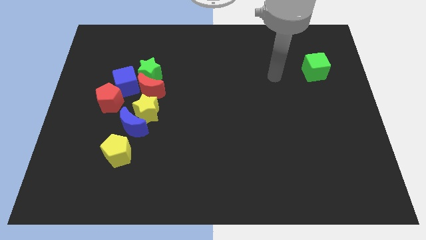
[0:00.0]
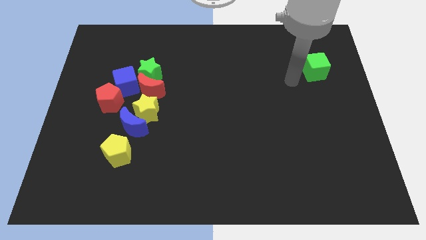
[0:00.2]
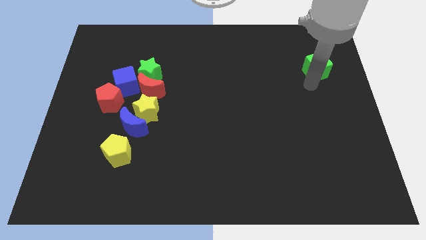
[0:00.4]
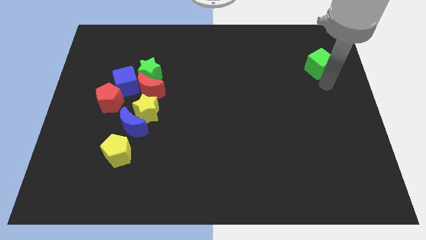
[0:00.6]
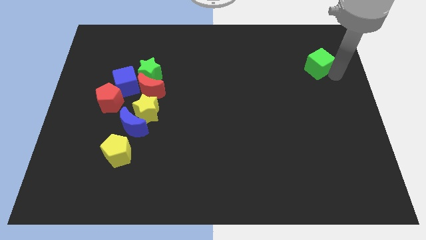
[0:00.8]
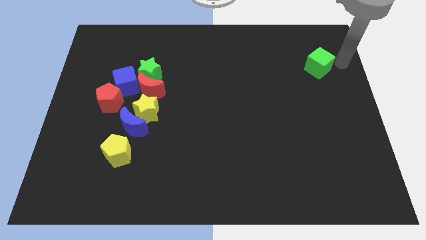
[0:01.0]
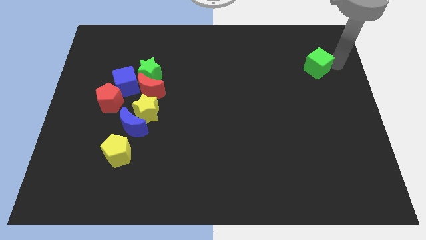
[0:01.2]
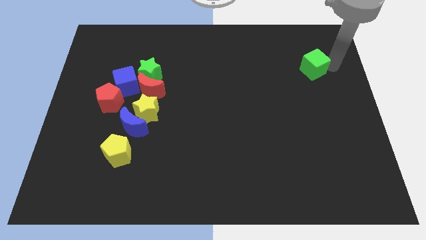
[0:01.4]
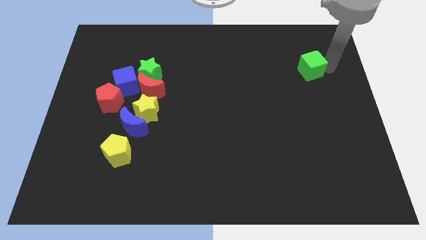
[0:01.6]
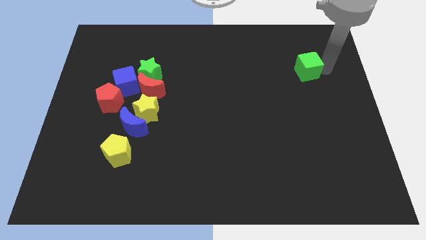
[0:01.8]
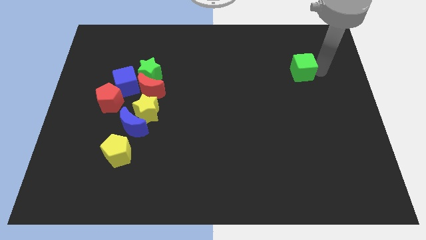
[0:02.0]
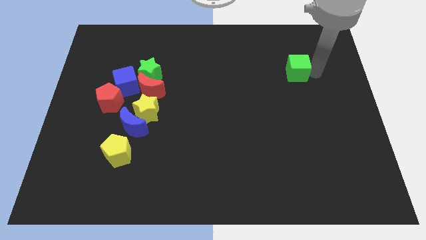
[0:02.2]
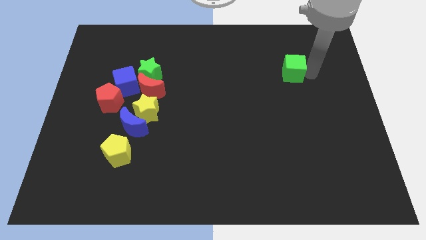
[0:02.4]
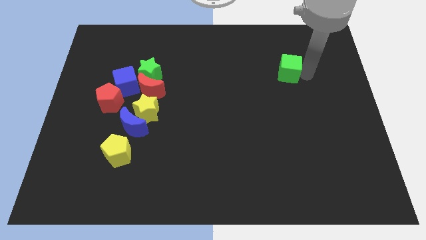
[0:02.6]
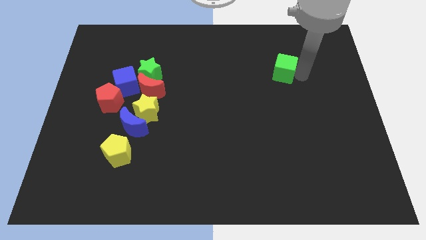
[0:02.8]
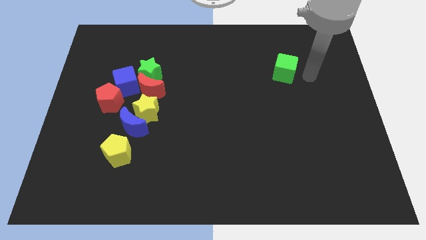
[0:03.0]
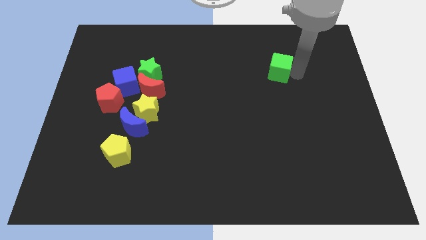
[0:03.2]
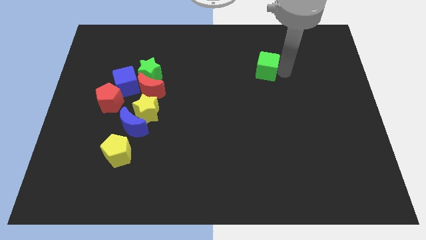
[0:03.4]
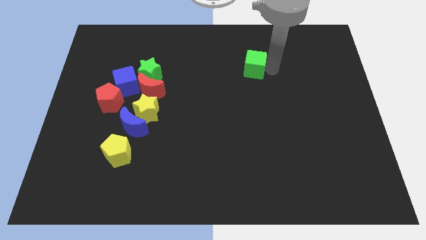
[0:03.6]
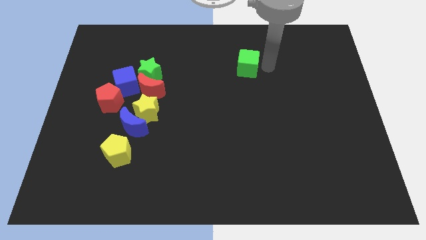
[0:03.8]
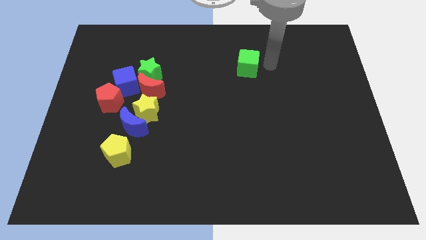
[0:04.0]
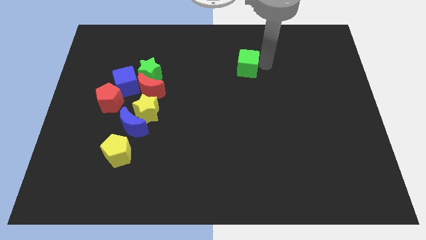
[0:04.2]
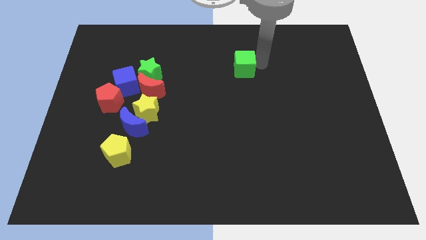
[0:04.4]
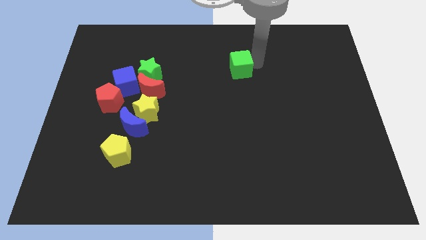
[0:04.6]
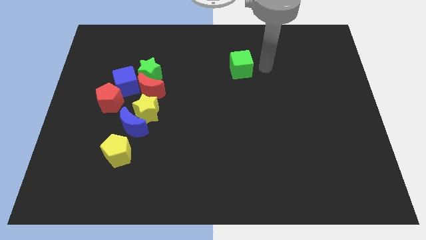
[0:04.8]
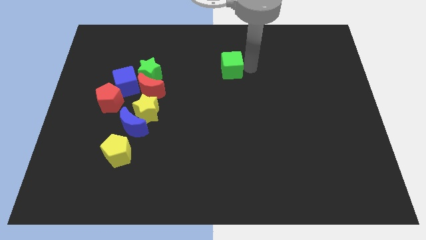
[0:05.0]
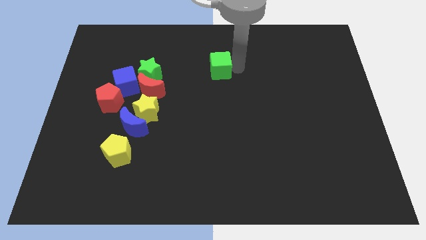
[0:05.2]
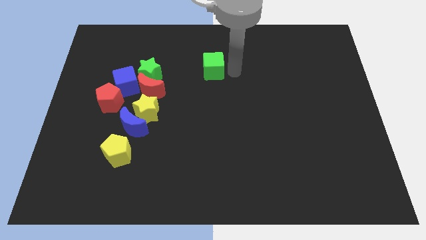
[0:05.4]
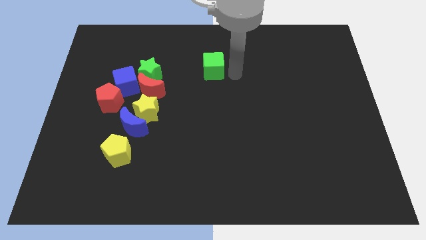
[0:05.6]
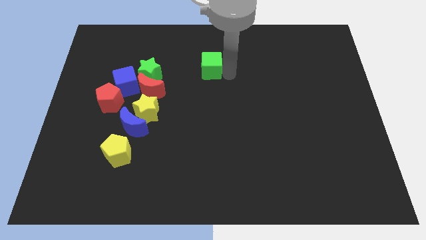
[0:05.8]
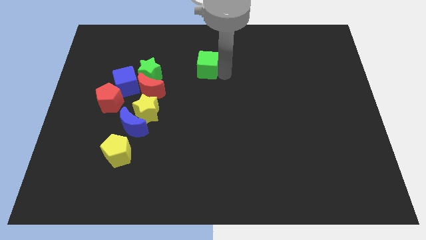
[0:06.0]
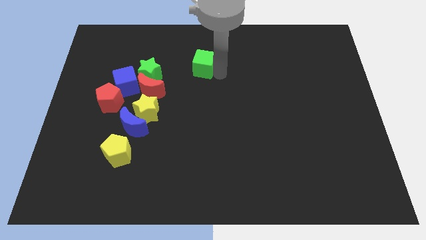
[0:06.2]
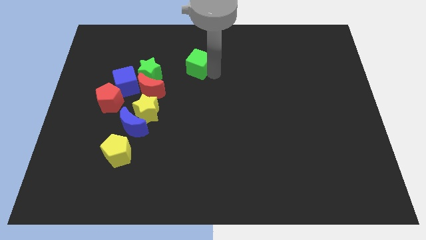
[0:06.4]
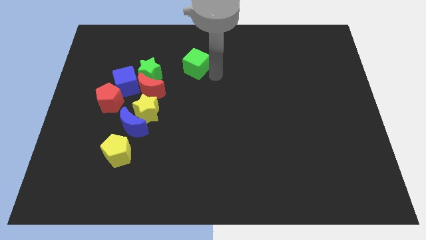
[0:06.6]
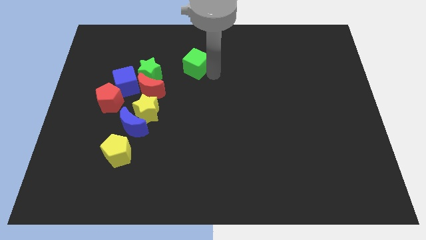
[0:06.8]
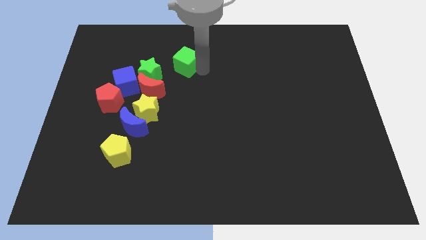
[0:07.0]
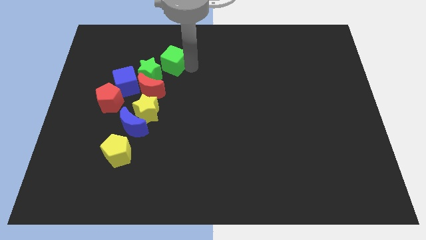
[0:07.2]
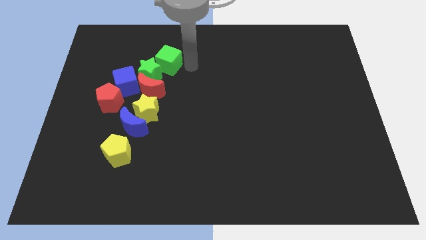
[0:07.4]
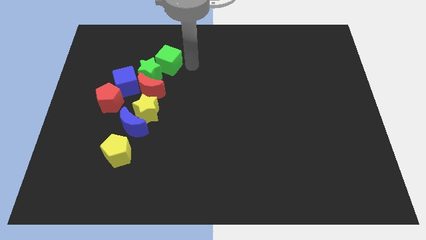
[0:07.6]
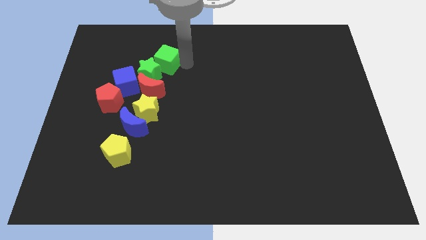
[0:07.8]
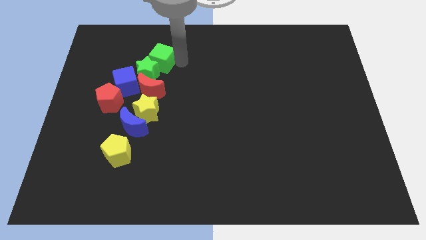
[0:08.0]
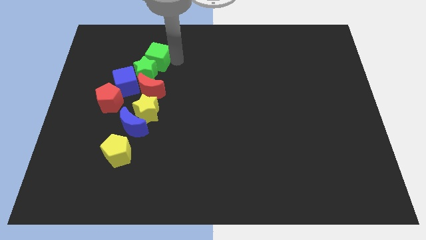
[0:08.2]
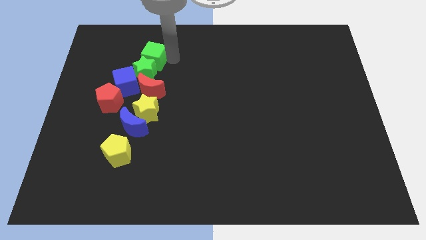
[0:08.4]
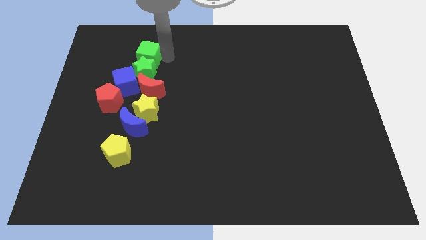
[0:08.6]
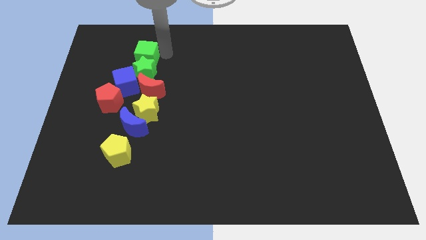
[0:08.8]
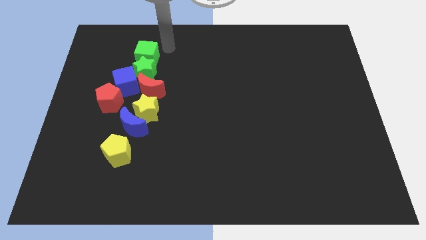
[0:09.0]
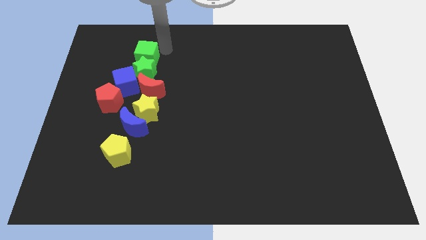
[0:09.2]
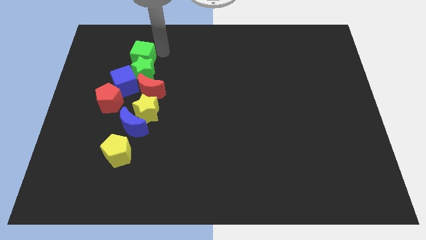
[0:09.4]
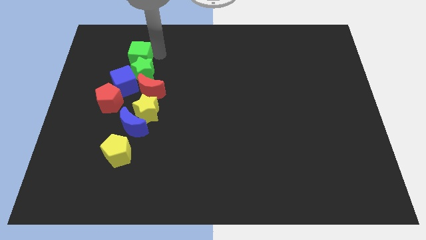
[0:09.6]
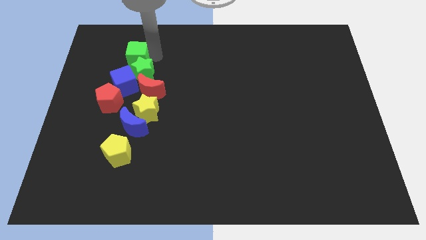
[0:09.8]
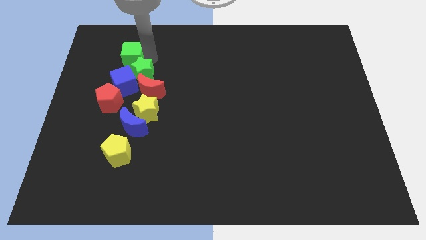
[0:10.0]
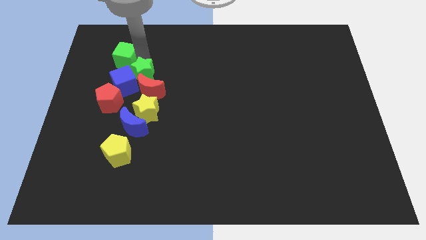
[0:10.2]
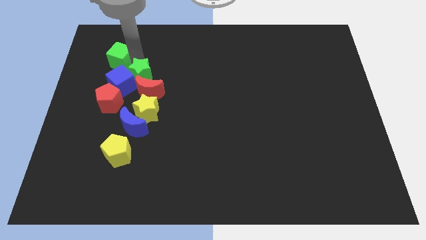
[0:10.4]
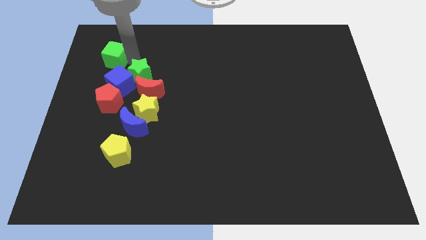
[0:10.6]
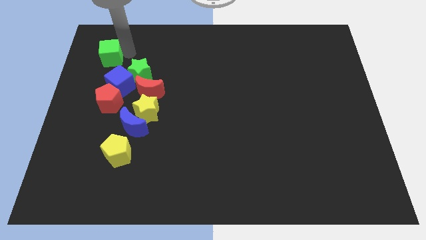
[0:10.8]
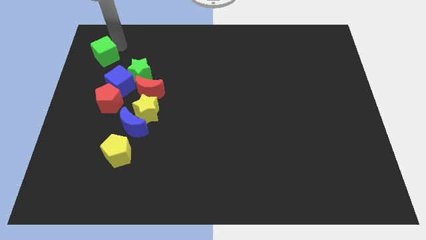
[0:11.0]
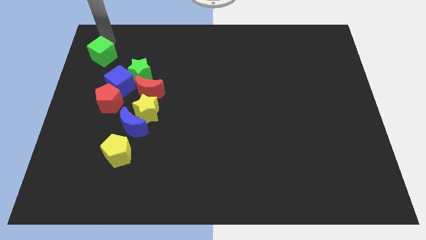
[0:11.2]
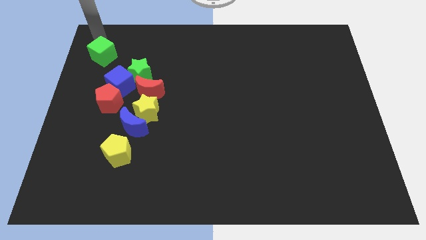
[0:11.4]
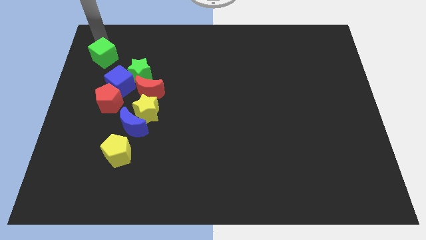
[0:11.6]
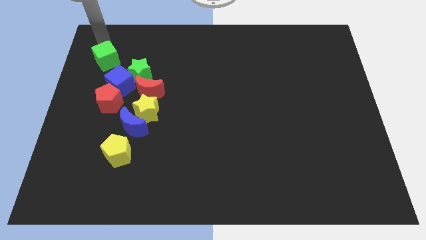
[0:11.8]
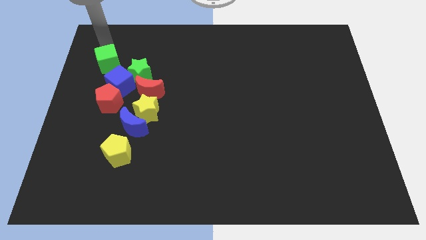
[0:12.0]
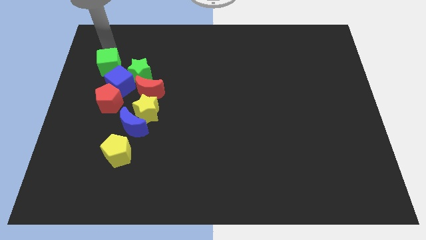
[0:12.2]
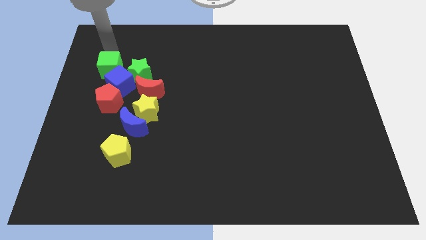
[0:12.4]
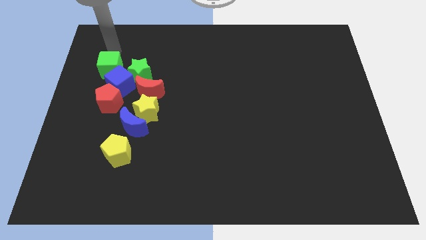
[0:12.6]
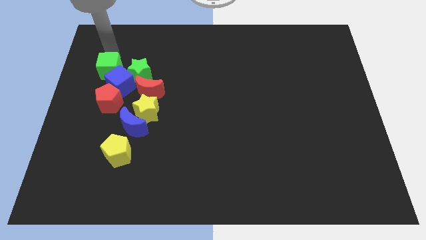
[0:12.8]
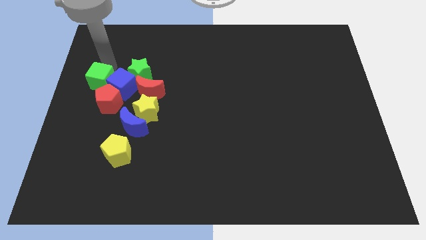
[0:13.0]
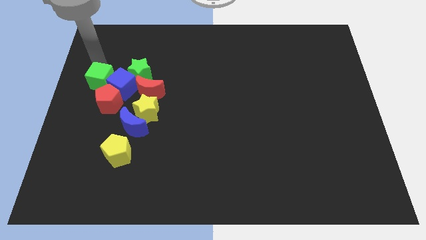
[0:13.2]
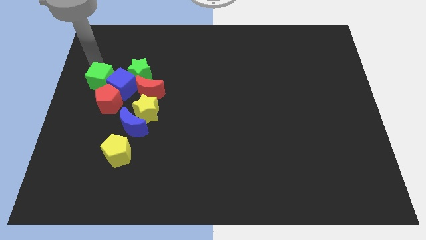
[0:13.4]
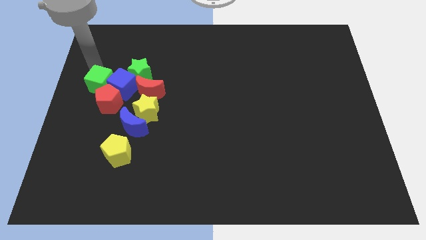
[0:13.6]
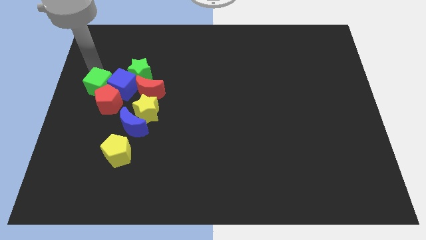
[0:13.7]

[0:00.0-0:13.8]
slide the green cube close to the red pentagon

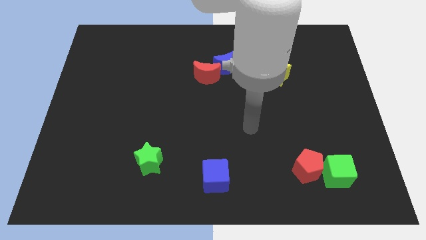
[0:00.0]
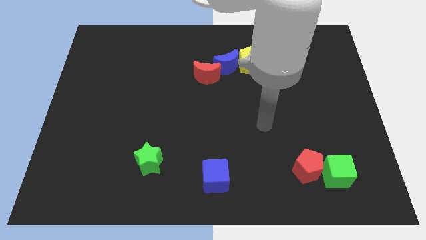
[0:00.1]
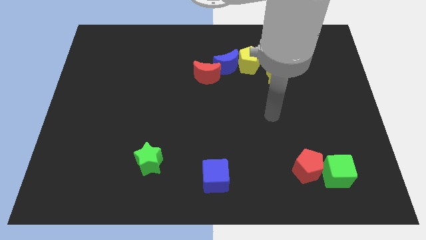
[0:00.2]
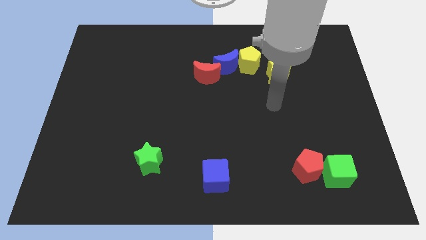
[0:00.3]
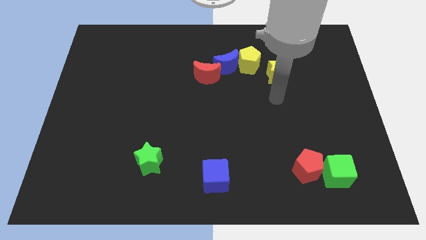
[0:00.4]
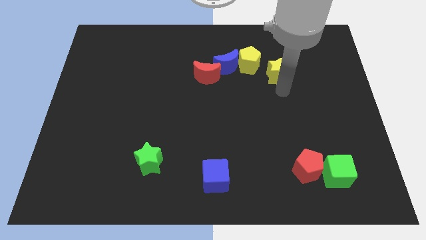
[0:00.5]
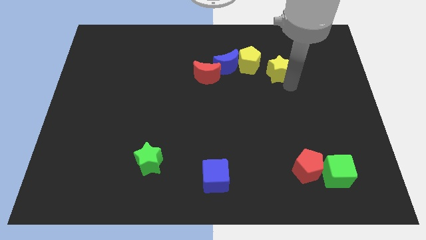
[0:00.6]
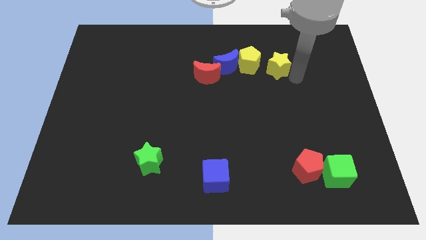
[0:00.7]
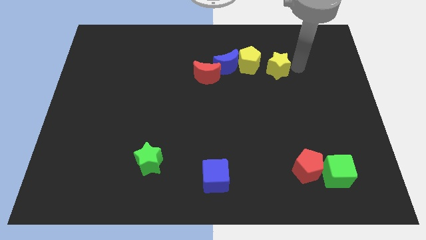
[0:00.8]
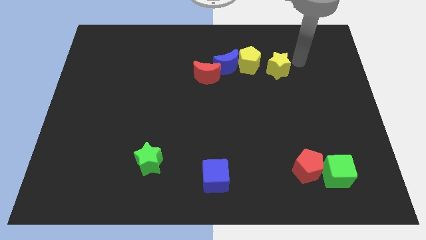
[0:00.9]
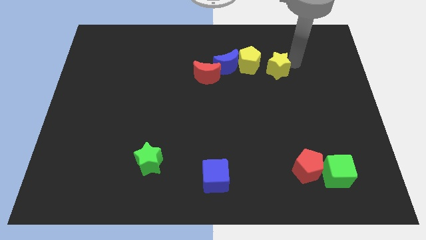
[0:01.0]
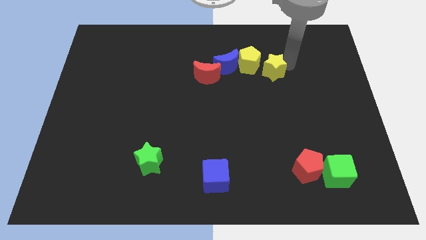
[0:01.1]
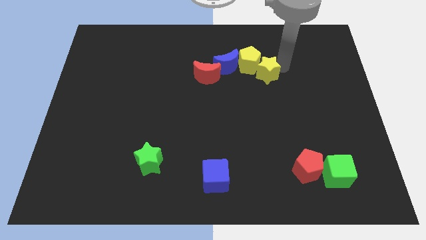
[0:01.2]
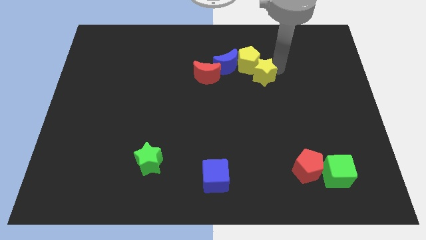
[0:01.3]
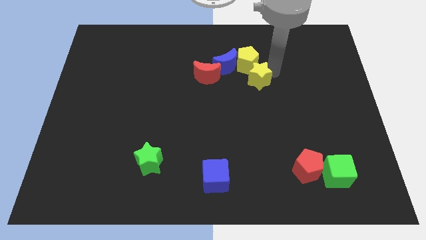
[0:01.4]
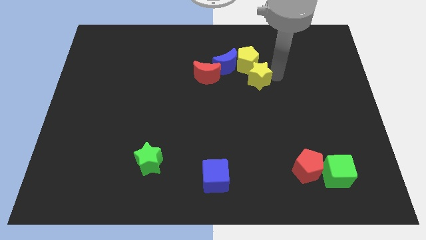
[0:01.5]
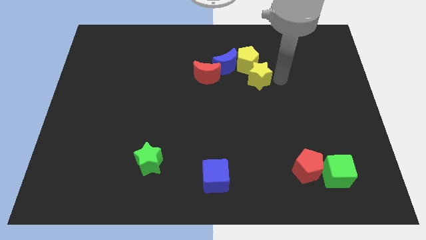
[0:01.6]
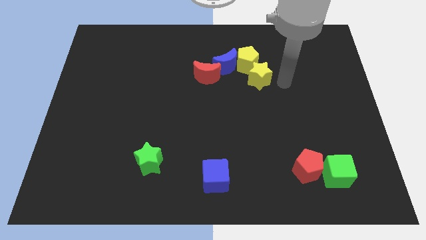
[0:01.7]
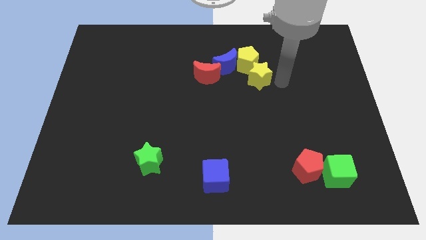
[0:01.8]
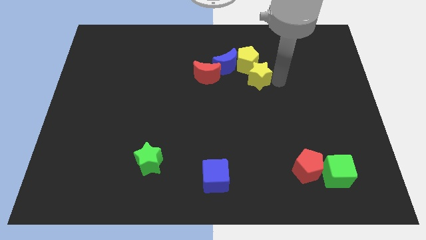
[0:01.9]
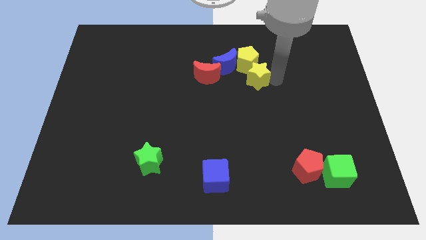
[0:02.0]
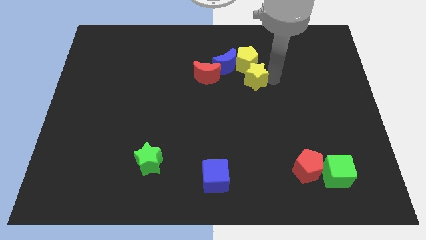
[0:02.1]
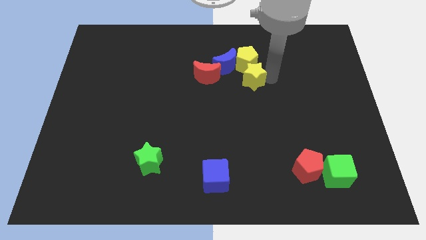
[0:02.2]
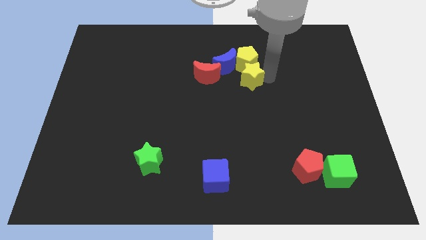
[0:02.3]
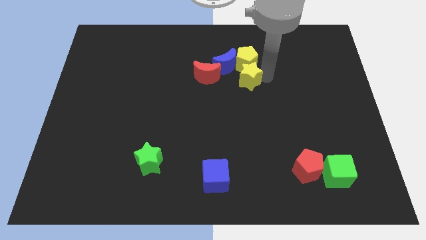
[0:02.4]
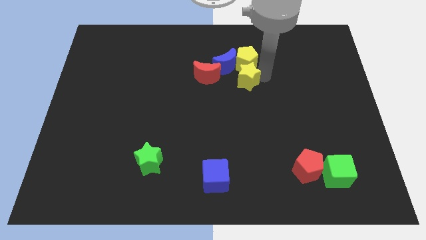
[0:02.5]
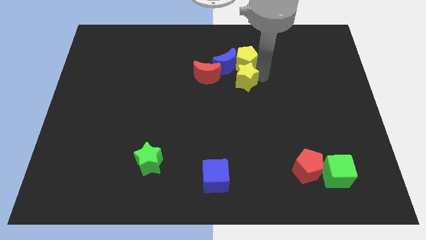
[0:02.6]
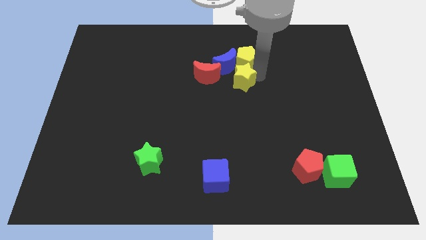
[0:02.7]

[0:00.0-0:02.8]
put the yellow star close to the blue moon
